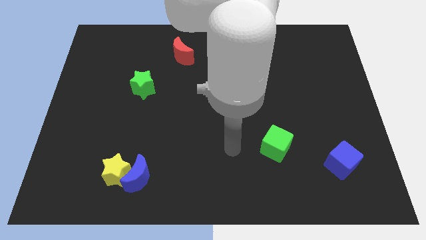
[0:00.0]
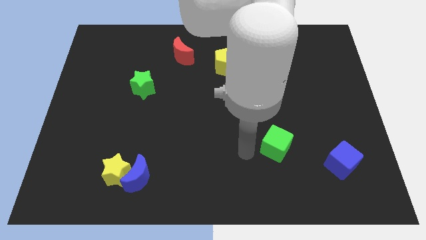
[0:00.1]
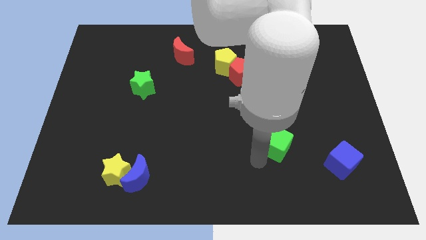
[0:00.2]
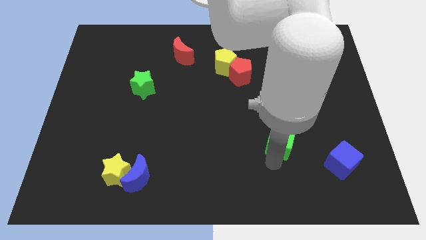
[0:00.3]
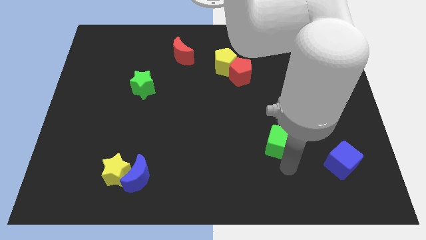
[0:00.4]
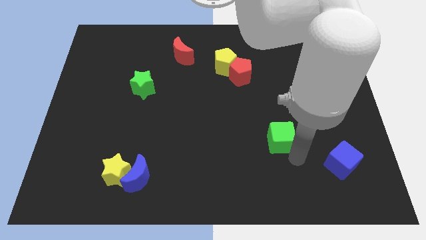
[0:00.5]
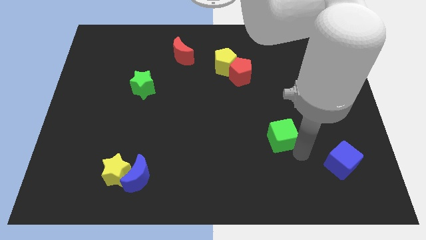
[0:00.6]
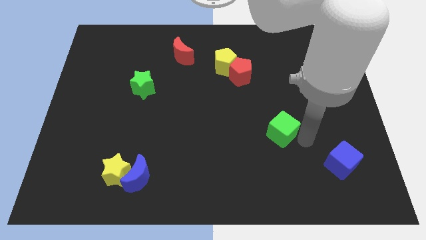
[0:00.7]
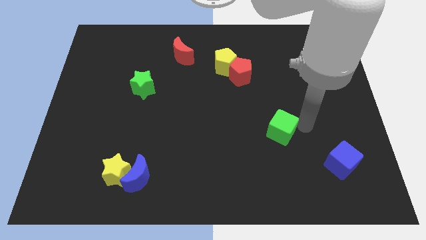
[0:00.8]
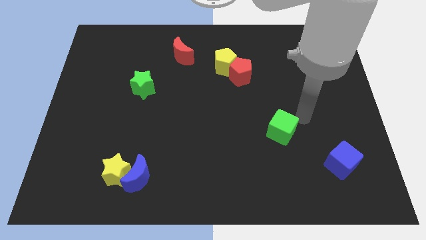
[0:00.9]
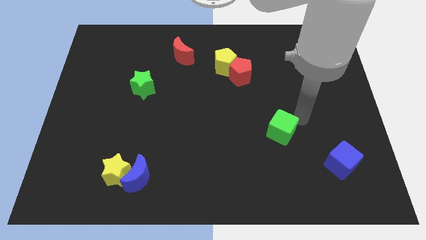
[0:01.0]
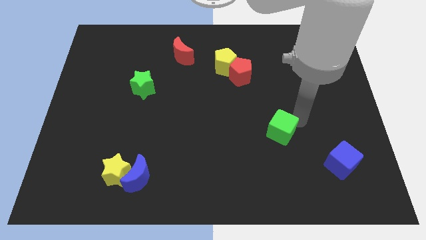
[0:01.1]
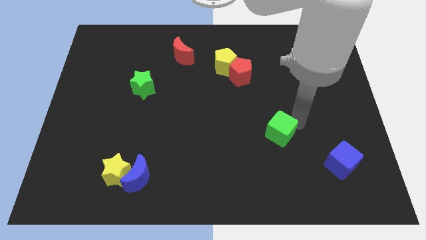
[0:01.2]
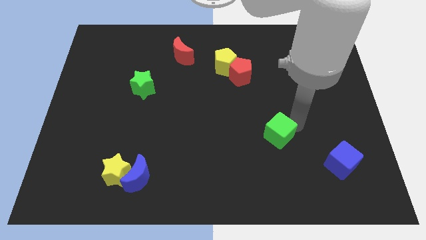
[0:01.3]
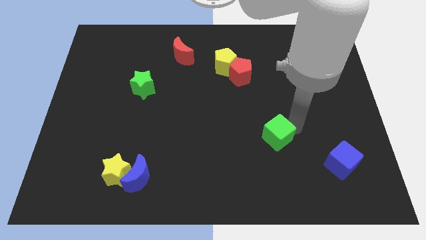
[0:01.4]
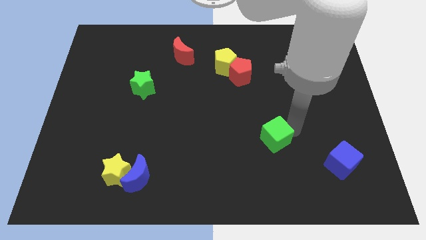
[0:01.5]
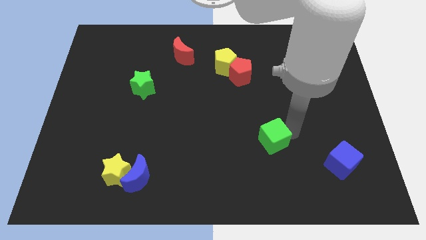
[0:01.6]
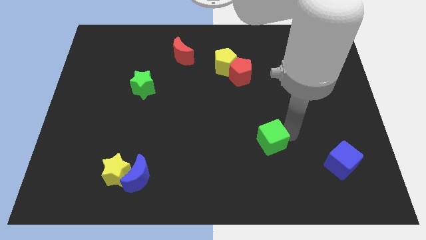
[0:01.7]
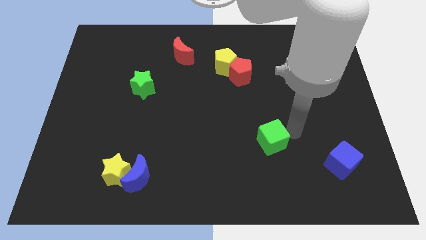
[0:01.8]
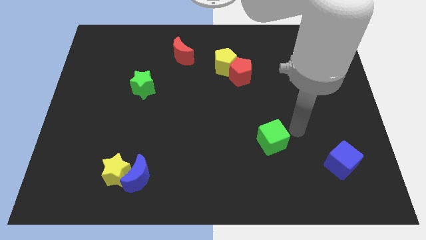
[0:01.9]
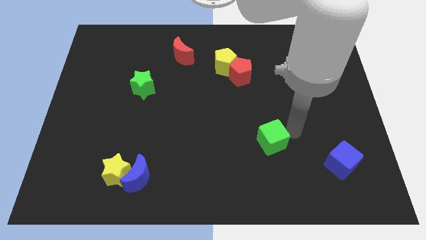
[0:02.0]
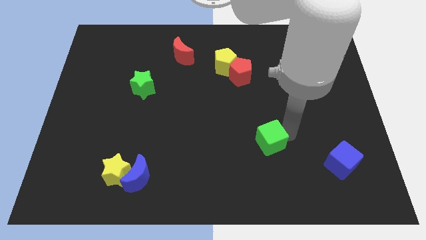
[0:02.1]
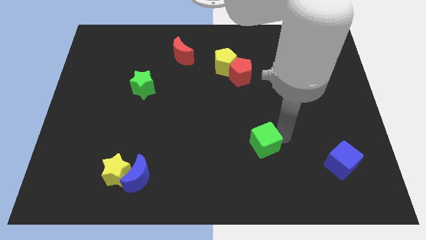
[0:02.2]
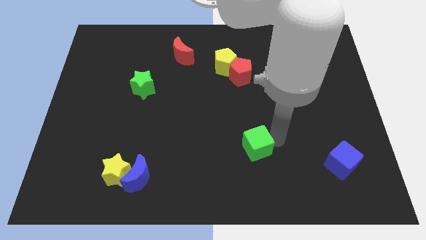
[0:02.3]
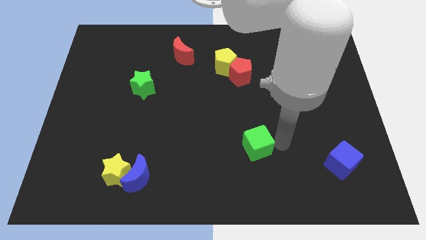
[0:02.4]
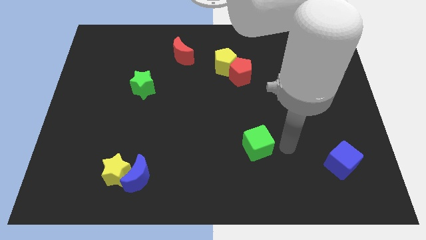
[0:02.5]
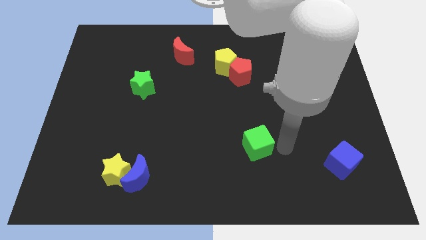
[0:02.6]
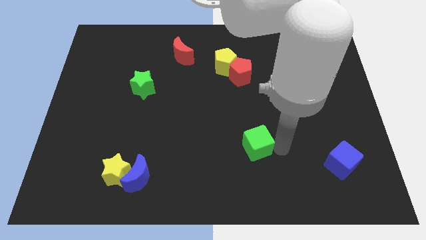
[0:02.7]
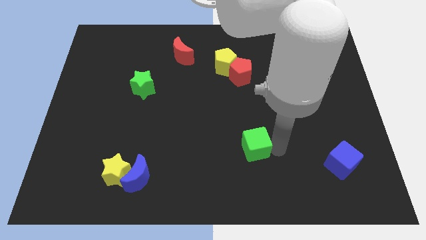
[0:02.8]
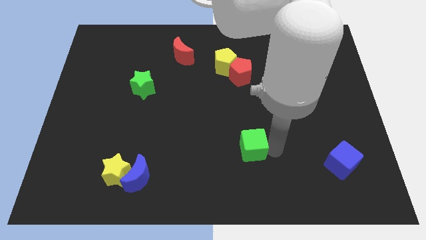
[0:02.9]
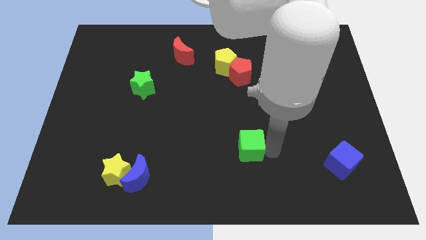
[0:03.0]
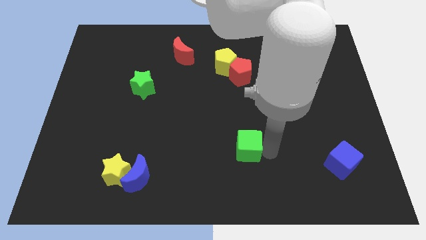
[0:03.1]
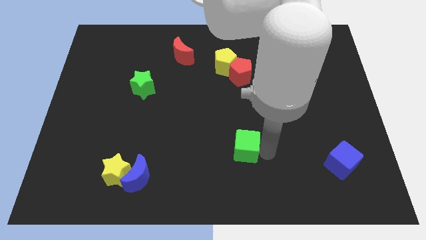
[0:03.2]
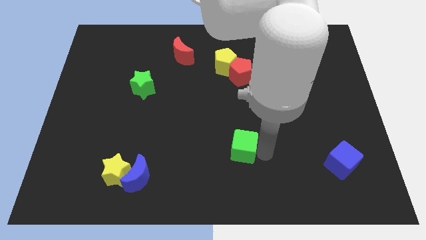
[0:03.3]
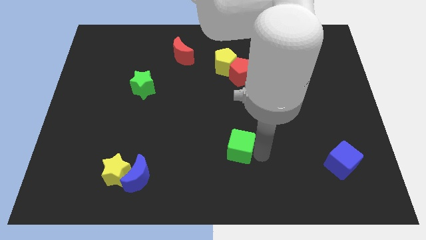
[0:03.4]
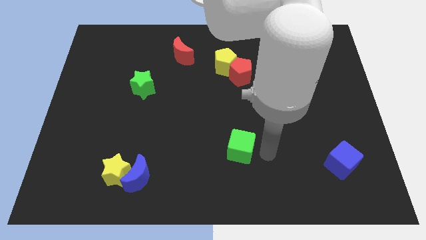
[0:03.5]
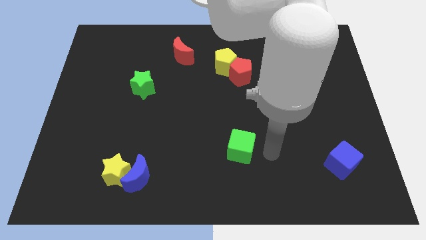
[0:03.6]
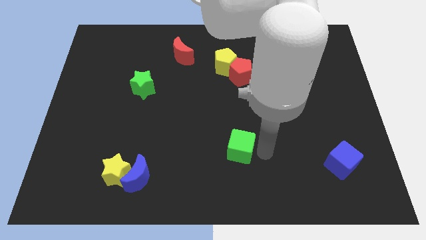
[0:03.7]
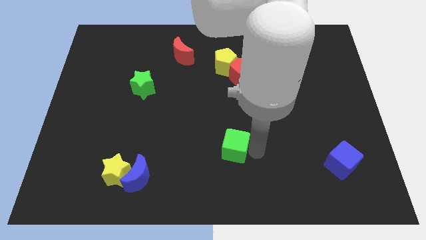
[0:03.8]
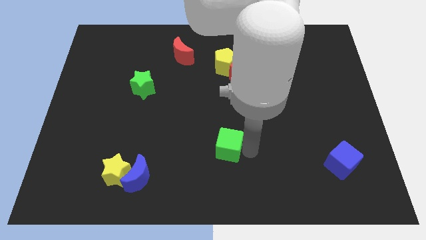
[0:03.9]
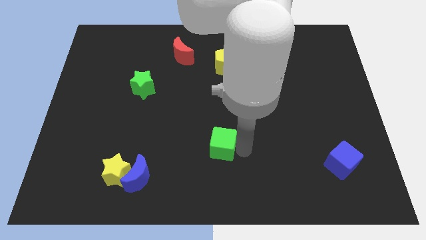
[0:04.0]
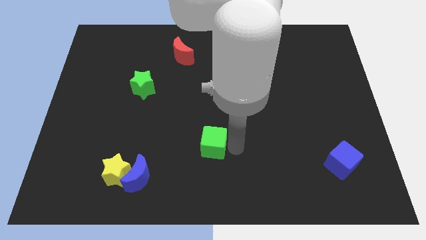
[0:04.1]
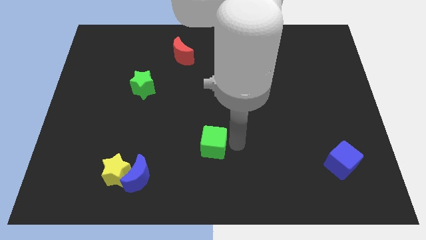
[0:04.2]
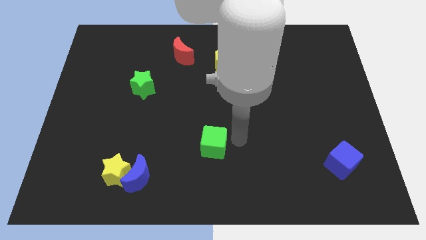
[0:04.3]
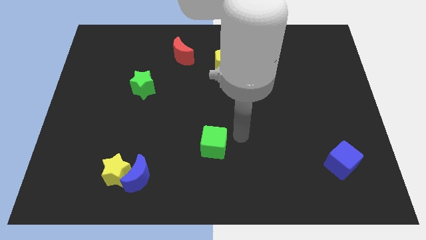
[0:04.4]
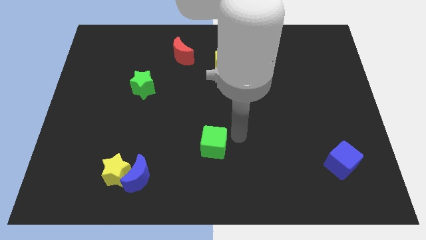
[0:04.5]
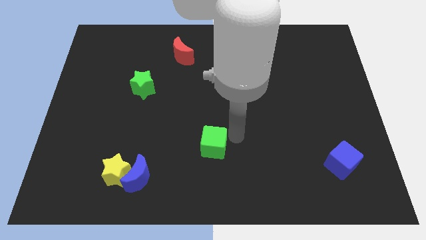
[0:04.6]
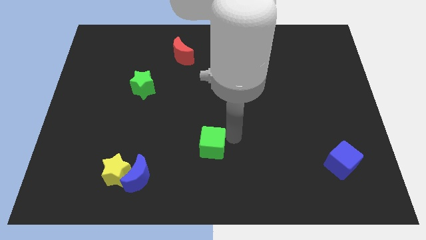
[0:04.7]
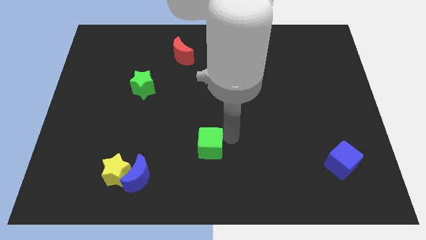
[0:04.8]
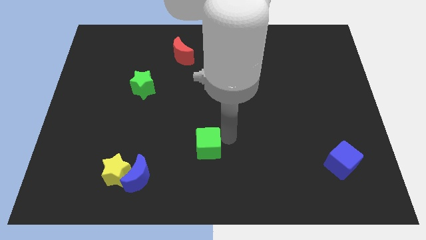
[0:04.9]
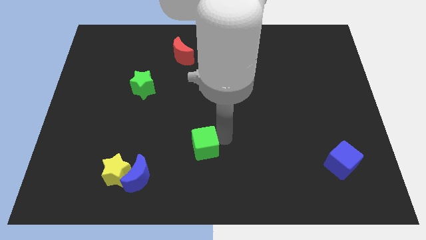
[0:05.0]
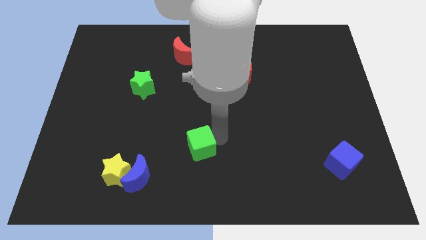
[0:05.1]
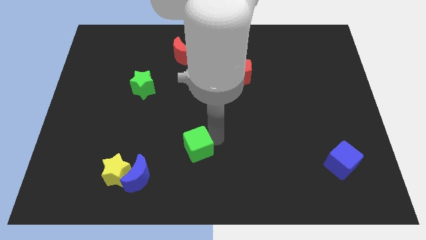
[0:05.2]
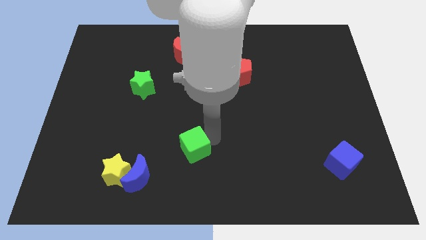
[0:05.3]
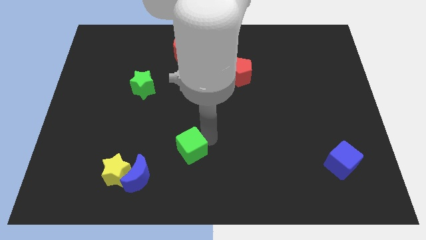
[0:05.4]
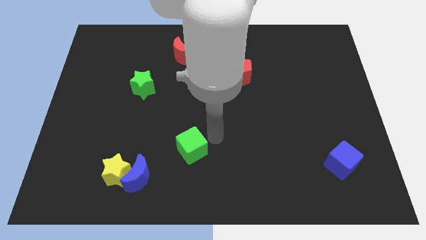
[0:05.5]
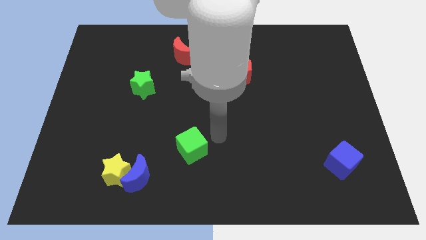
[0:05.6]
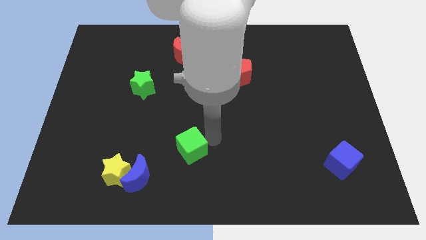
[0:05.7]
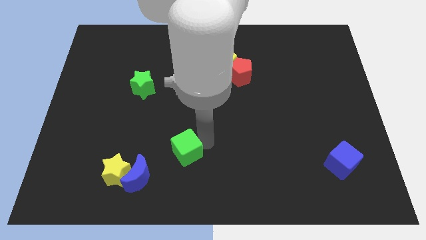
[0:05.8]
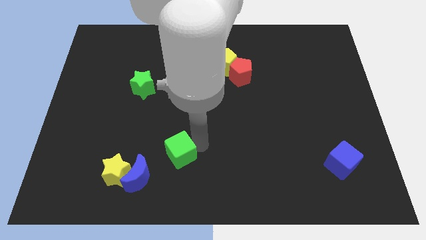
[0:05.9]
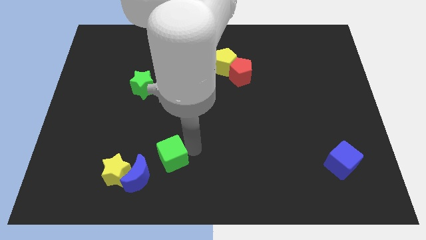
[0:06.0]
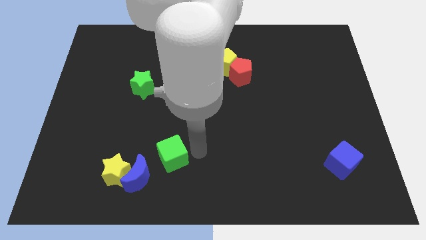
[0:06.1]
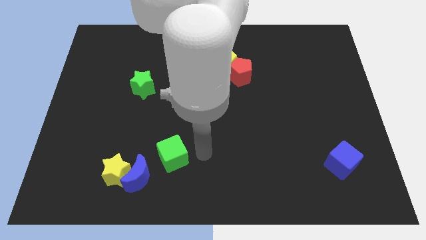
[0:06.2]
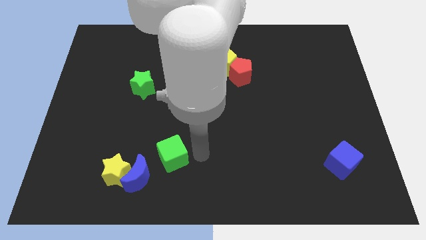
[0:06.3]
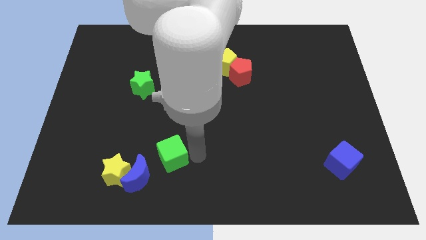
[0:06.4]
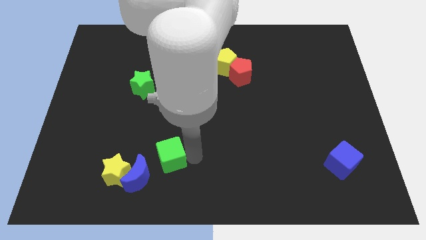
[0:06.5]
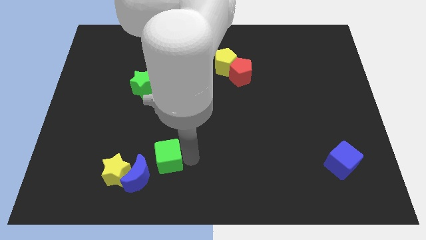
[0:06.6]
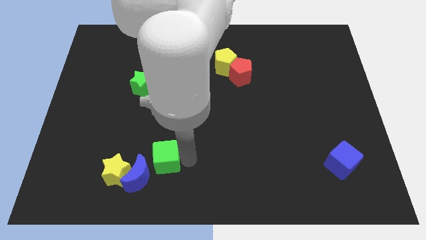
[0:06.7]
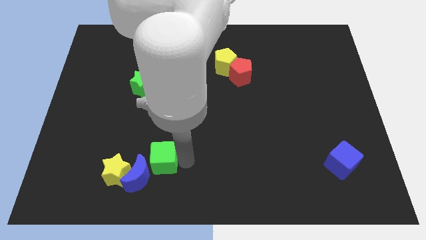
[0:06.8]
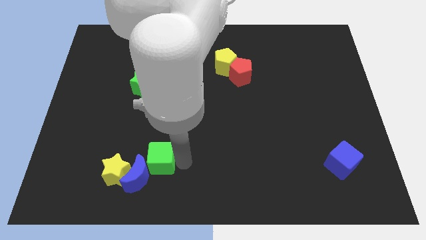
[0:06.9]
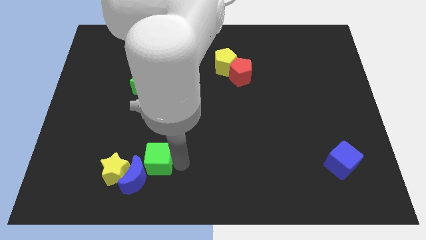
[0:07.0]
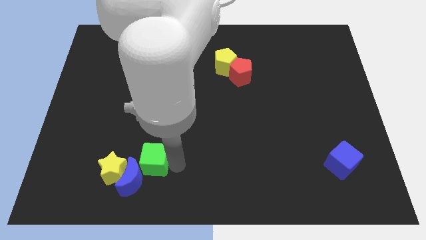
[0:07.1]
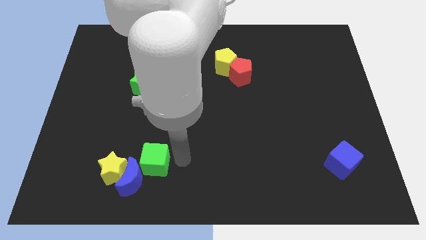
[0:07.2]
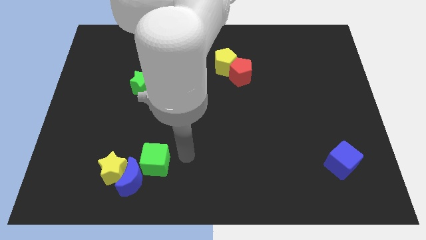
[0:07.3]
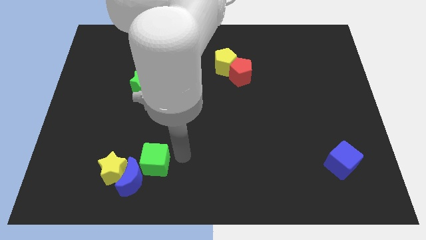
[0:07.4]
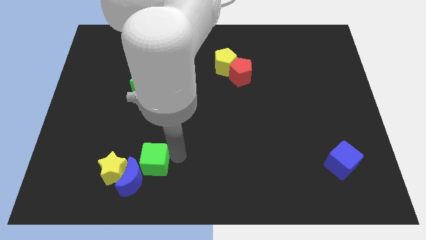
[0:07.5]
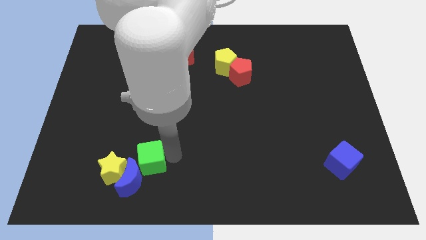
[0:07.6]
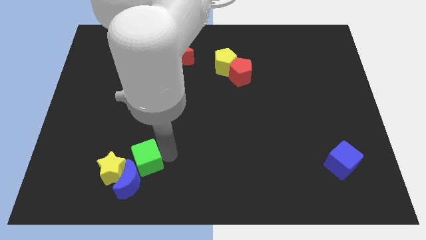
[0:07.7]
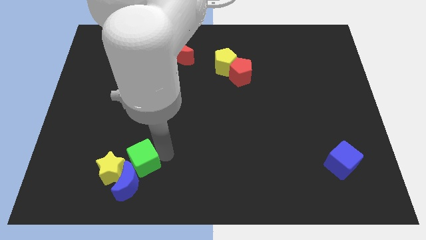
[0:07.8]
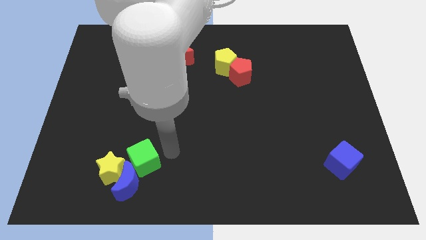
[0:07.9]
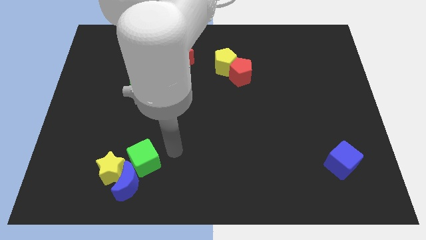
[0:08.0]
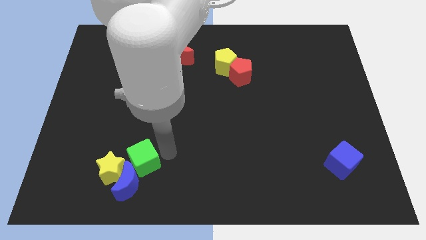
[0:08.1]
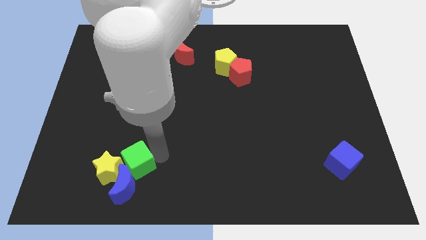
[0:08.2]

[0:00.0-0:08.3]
move the green cube to the yellow star
